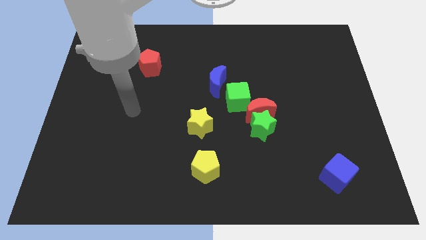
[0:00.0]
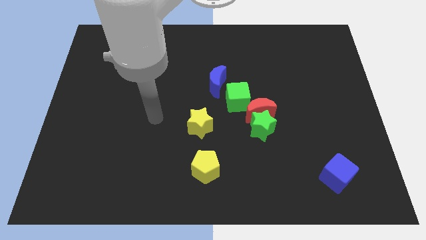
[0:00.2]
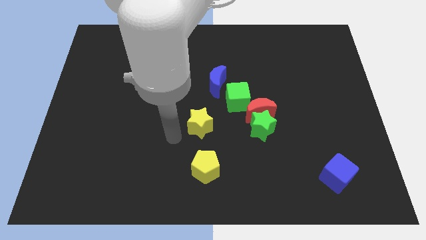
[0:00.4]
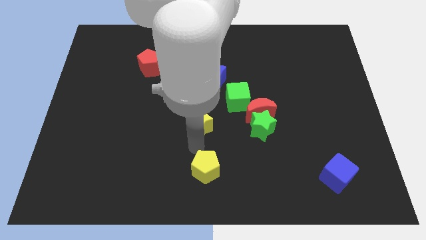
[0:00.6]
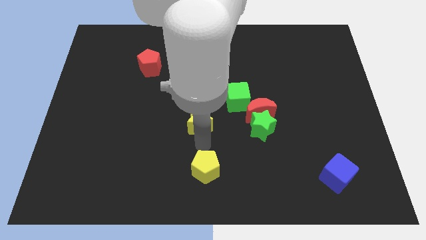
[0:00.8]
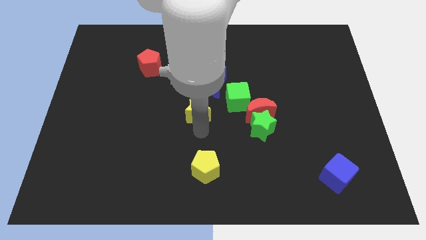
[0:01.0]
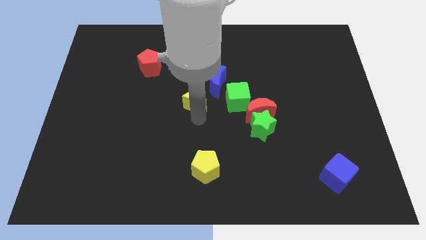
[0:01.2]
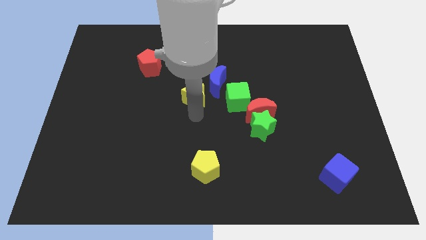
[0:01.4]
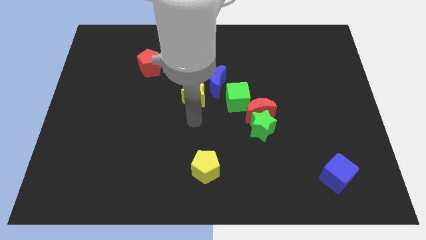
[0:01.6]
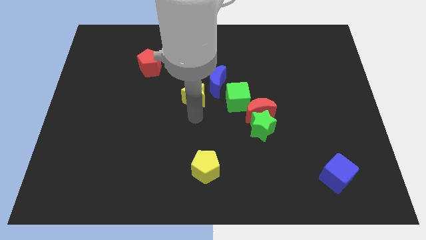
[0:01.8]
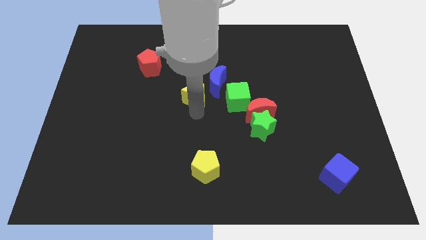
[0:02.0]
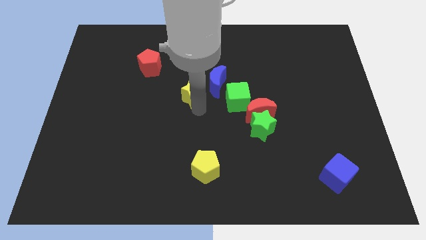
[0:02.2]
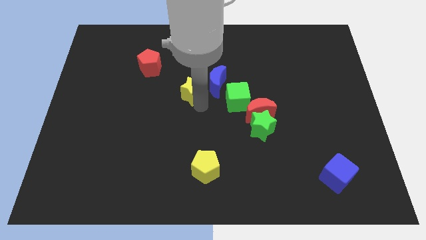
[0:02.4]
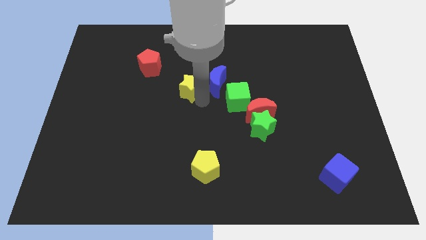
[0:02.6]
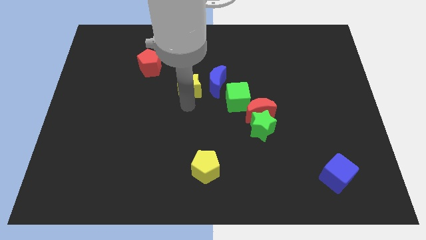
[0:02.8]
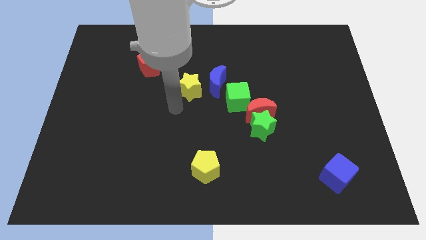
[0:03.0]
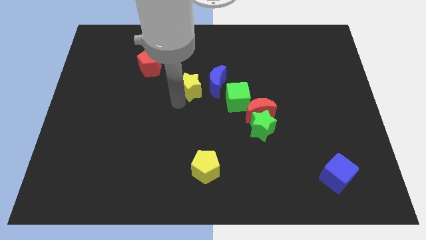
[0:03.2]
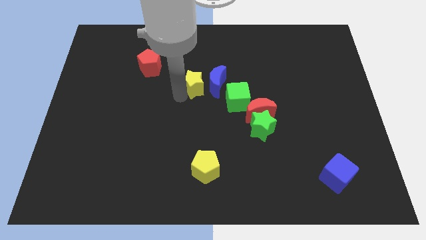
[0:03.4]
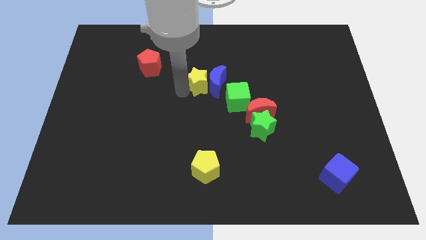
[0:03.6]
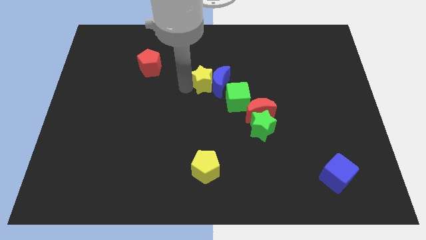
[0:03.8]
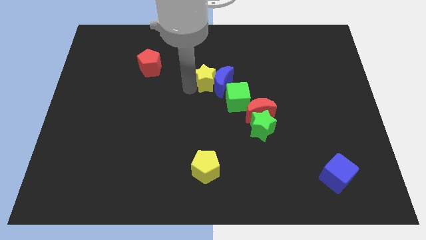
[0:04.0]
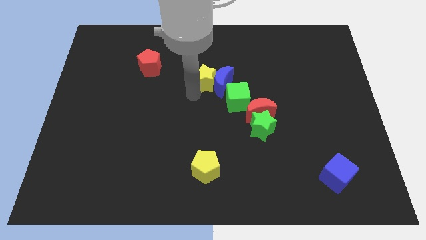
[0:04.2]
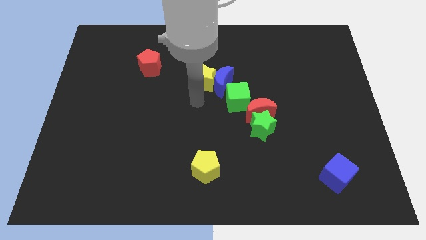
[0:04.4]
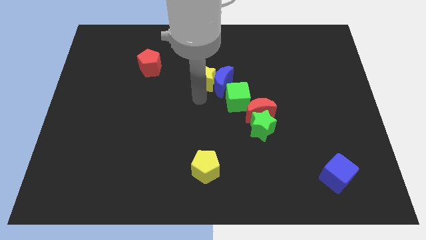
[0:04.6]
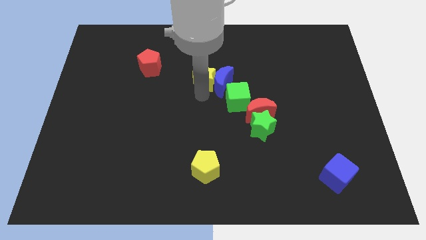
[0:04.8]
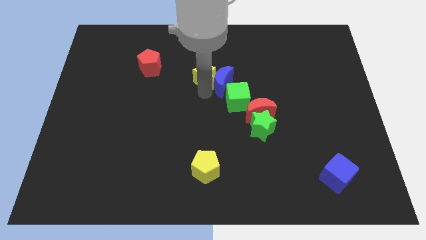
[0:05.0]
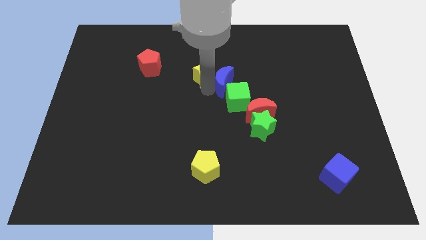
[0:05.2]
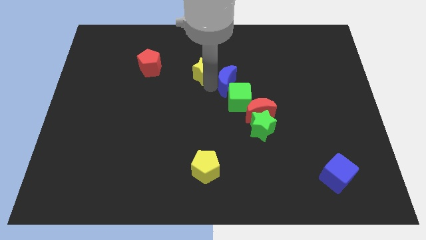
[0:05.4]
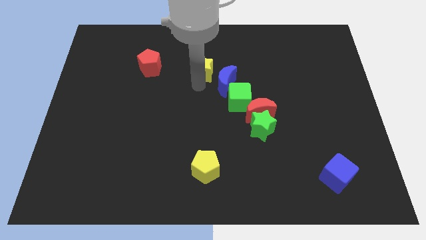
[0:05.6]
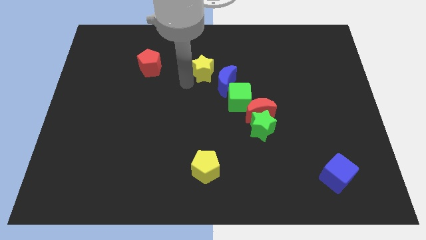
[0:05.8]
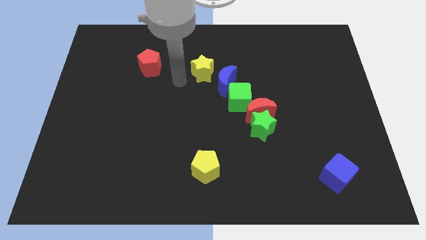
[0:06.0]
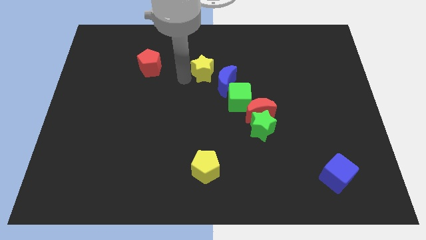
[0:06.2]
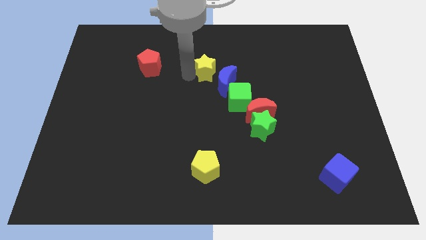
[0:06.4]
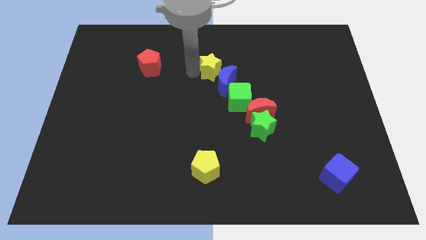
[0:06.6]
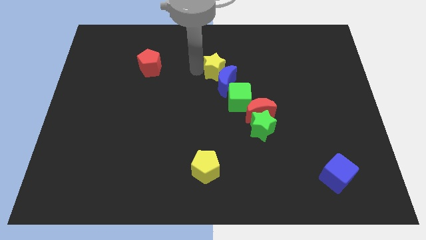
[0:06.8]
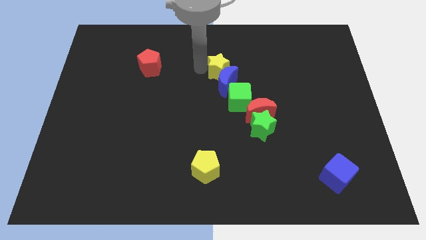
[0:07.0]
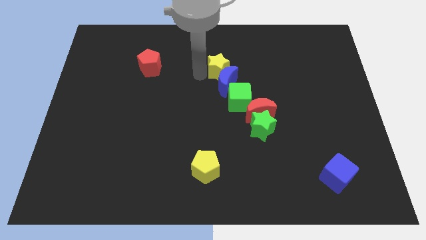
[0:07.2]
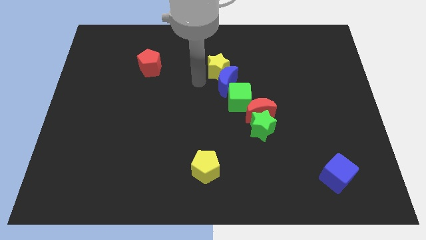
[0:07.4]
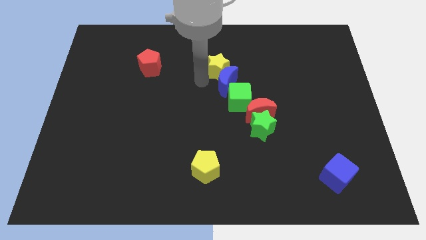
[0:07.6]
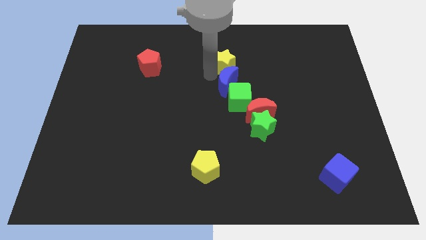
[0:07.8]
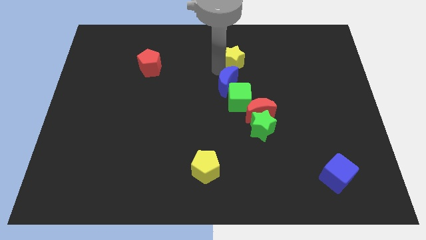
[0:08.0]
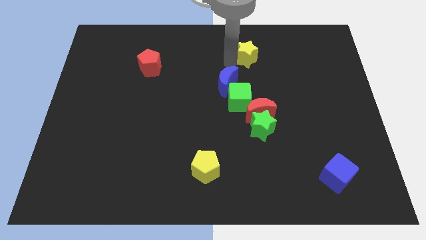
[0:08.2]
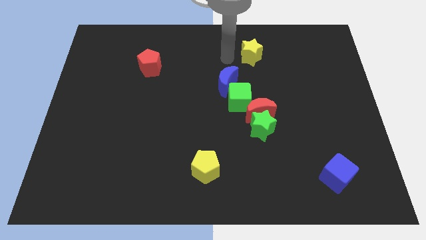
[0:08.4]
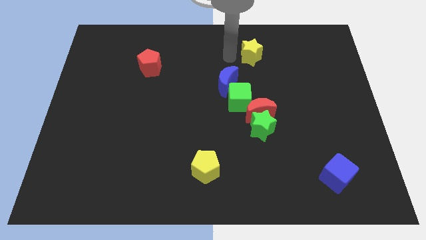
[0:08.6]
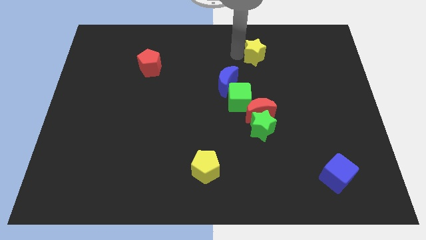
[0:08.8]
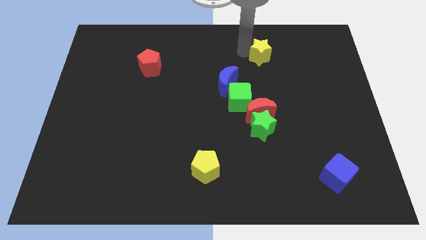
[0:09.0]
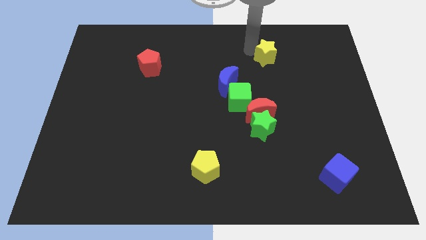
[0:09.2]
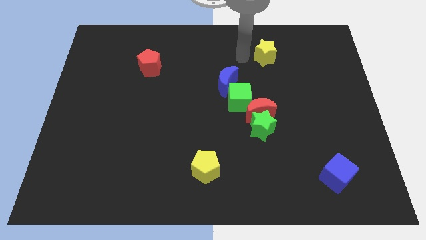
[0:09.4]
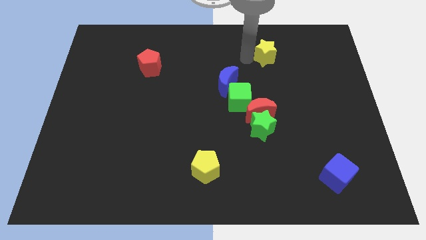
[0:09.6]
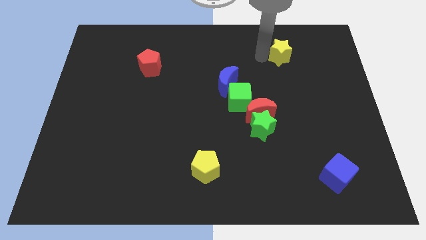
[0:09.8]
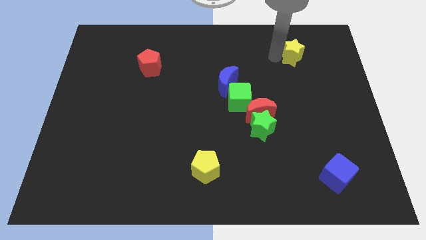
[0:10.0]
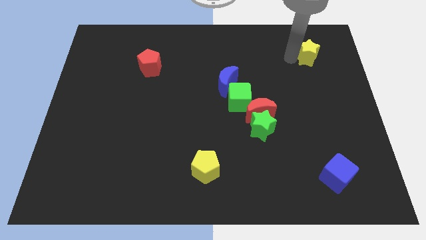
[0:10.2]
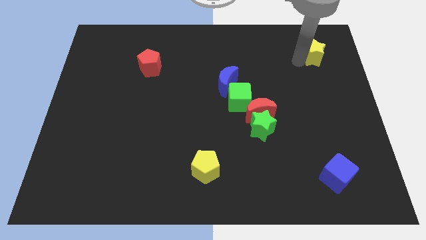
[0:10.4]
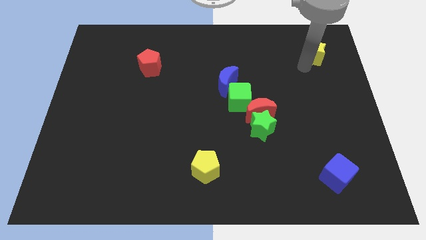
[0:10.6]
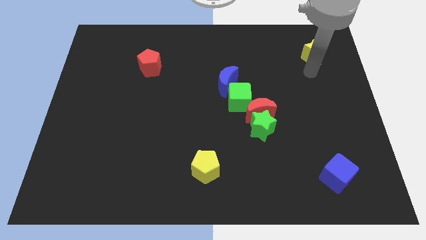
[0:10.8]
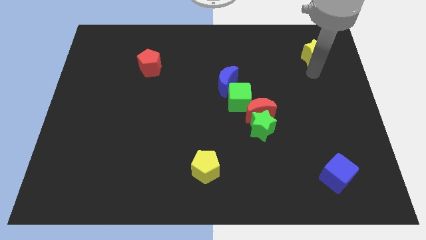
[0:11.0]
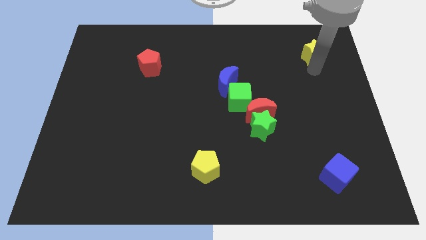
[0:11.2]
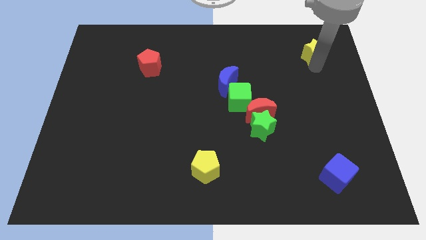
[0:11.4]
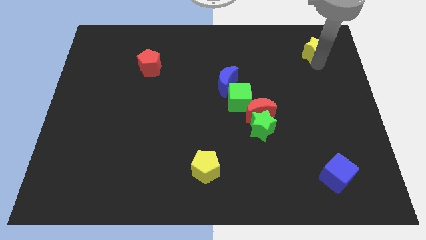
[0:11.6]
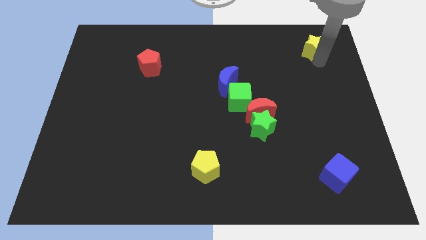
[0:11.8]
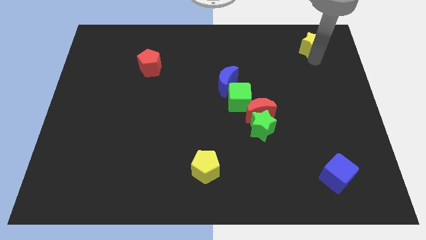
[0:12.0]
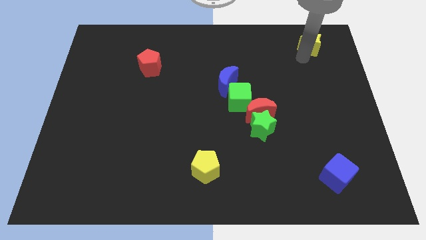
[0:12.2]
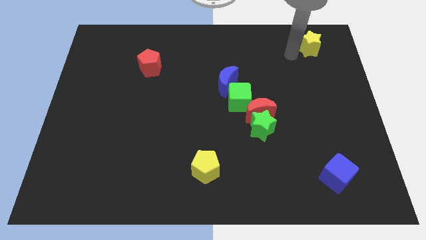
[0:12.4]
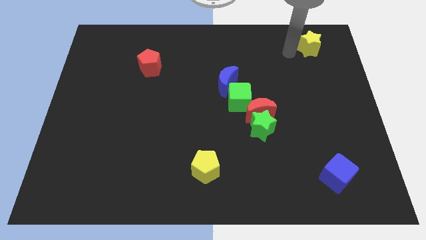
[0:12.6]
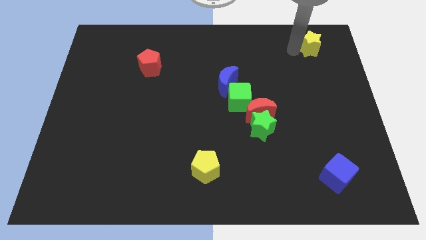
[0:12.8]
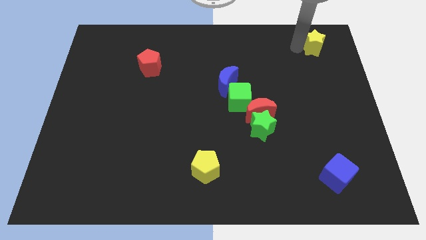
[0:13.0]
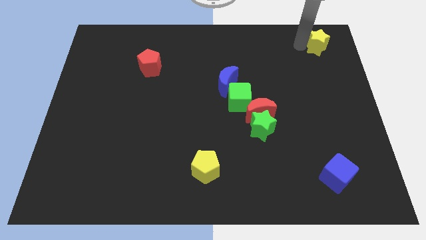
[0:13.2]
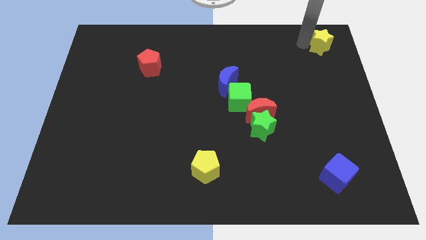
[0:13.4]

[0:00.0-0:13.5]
put the yellow star to the top right
